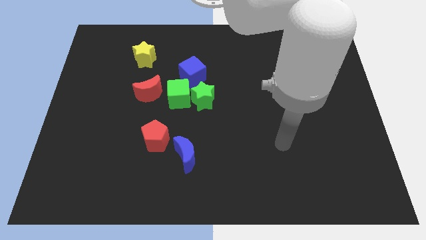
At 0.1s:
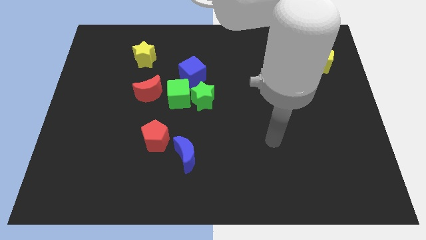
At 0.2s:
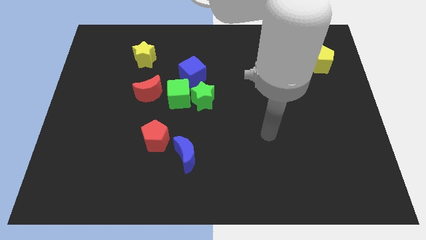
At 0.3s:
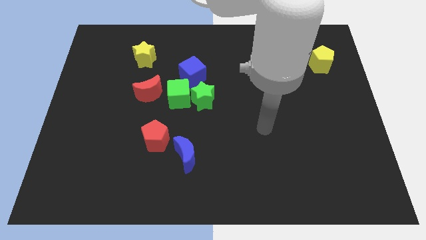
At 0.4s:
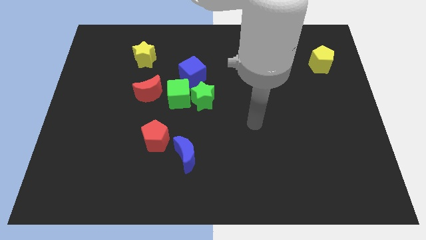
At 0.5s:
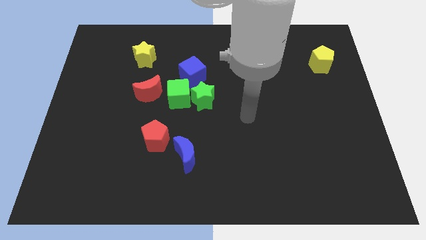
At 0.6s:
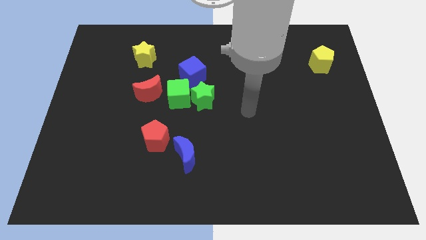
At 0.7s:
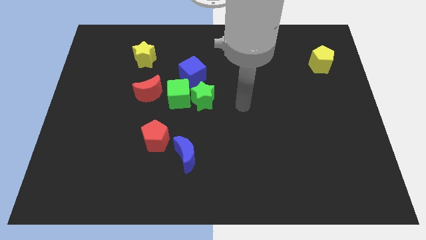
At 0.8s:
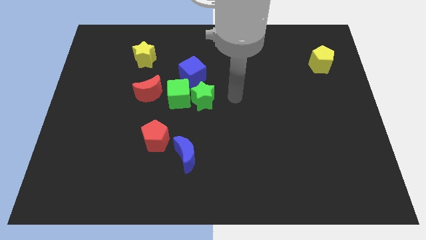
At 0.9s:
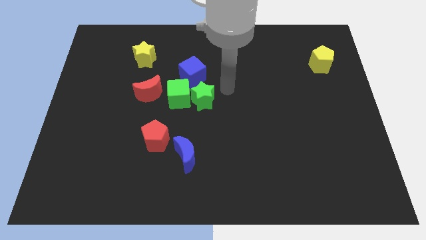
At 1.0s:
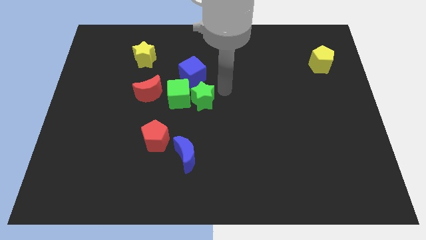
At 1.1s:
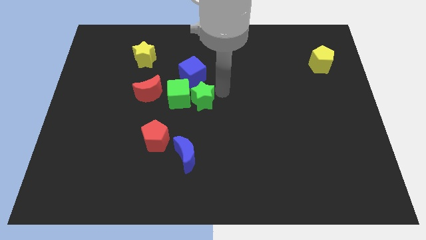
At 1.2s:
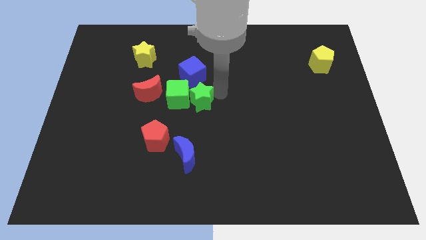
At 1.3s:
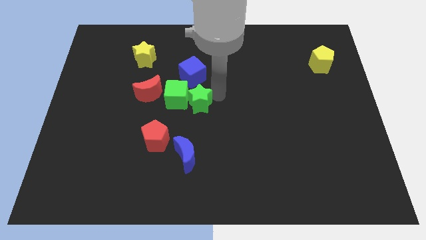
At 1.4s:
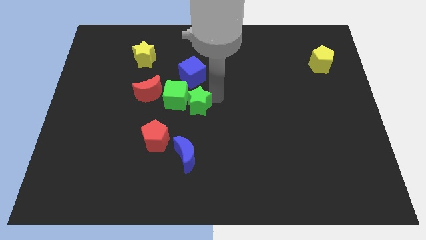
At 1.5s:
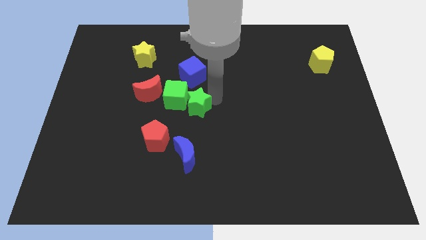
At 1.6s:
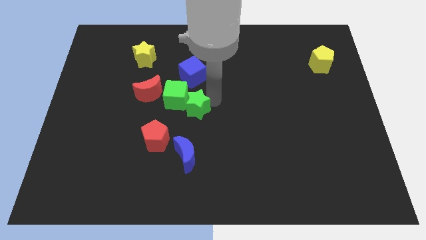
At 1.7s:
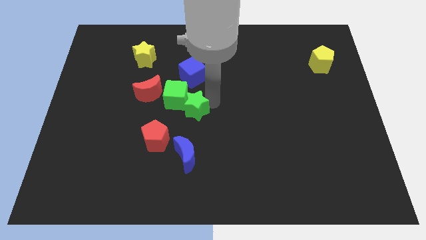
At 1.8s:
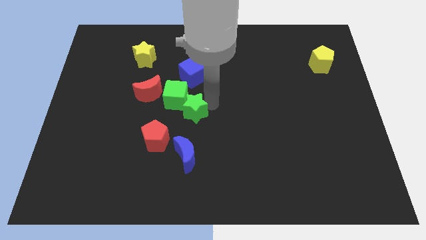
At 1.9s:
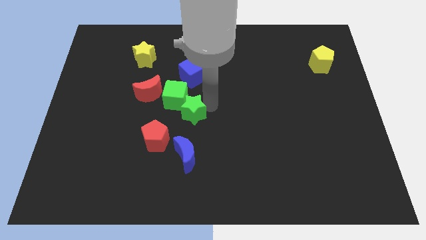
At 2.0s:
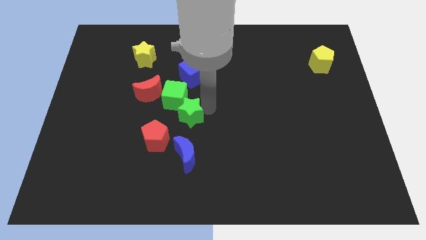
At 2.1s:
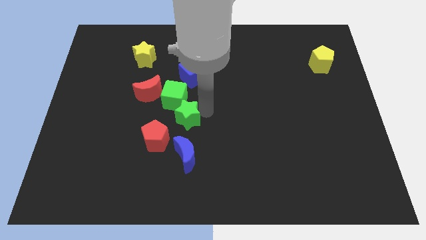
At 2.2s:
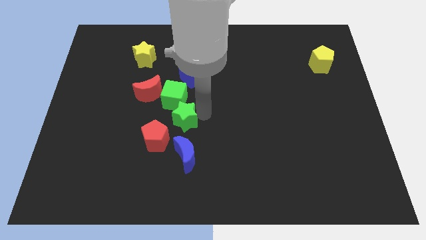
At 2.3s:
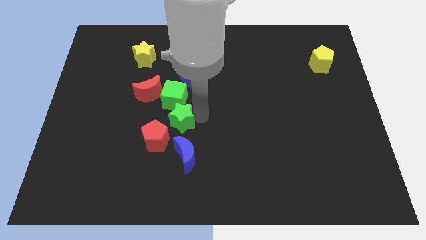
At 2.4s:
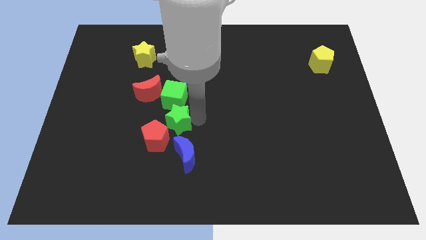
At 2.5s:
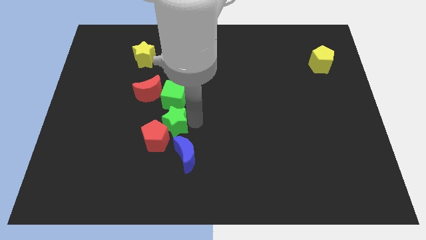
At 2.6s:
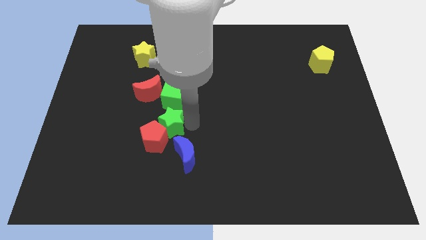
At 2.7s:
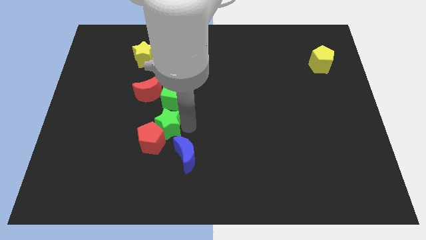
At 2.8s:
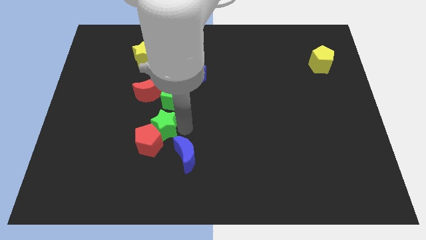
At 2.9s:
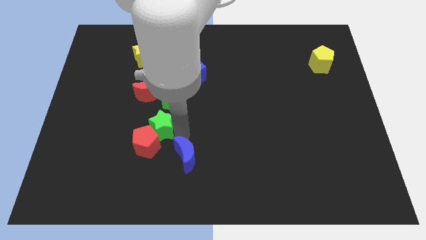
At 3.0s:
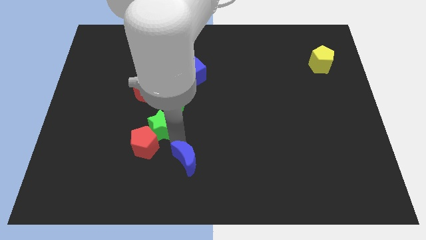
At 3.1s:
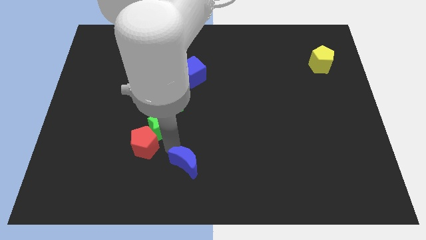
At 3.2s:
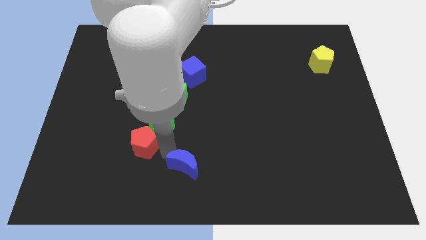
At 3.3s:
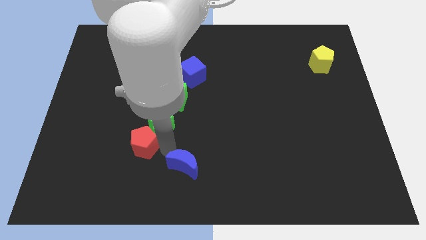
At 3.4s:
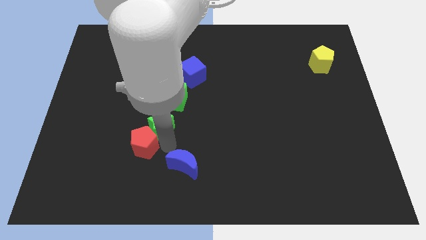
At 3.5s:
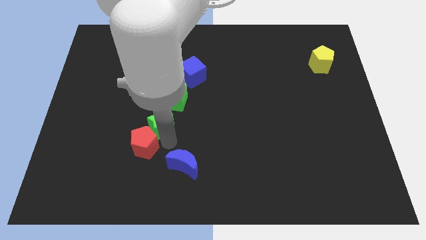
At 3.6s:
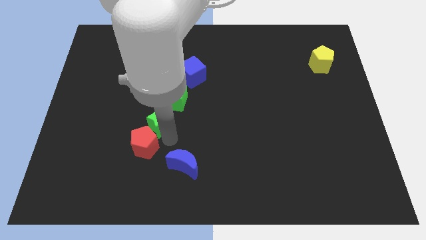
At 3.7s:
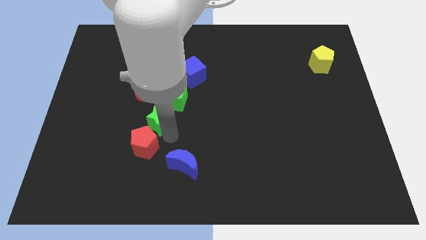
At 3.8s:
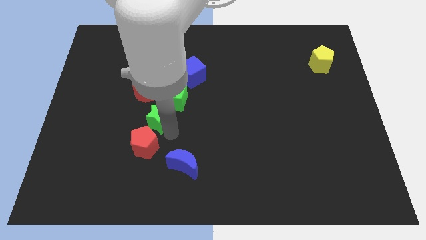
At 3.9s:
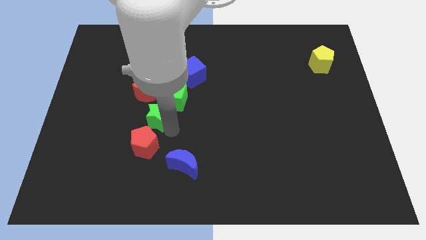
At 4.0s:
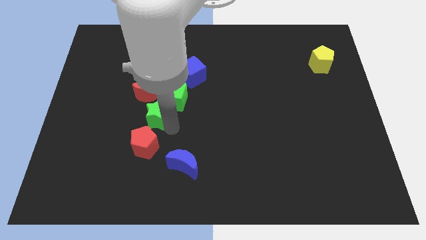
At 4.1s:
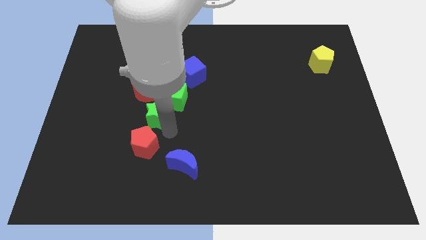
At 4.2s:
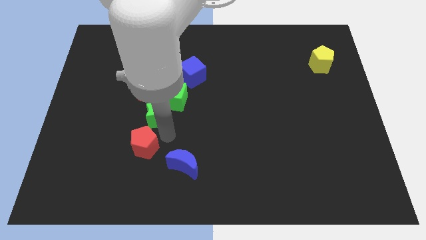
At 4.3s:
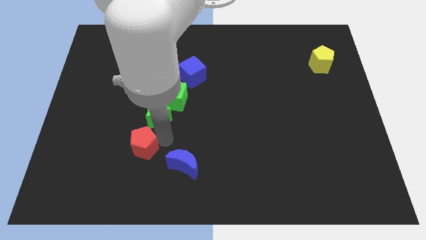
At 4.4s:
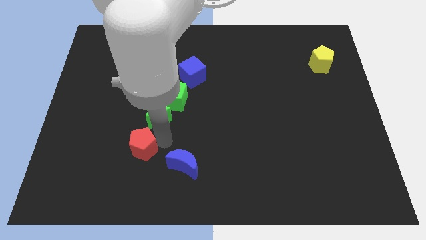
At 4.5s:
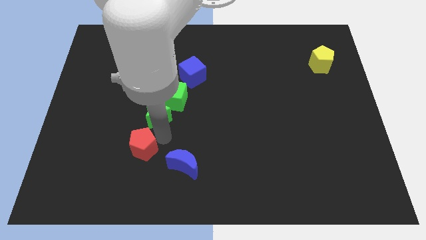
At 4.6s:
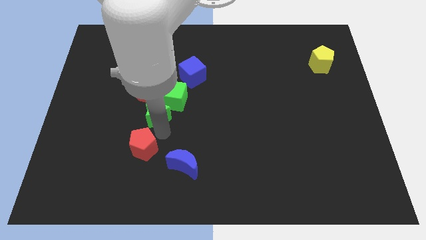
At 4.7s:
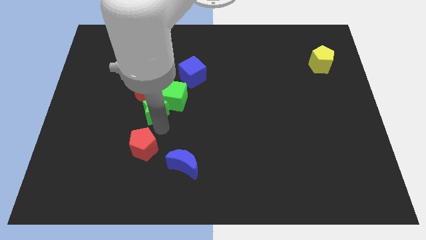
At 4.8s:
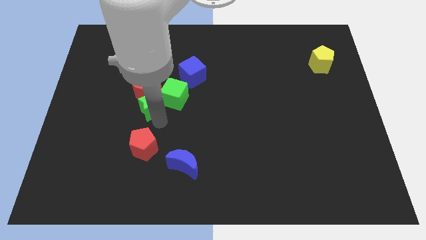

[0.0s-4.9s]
slide the green star to the red moon

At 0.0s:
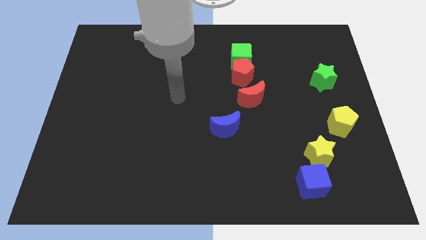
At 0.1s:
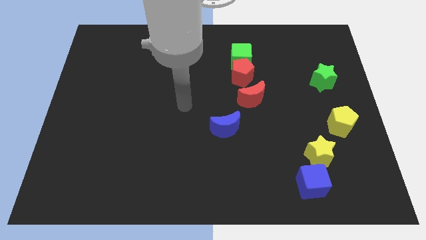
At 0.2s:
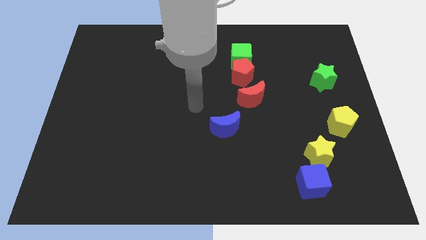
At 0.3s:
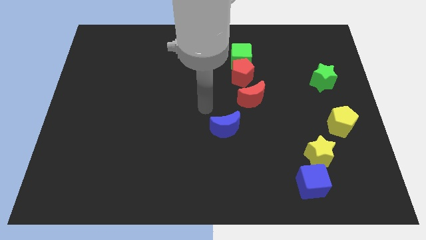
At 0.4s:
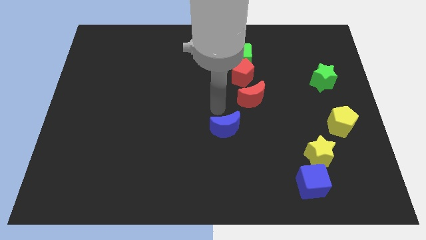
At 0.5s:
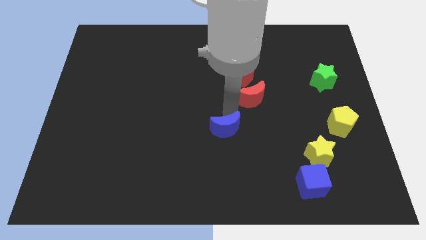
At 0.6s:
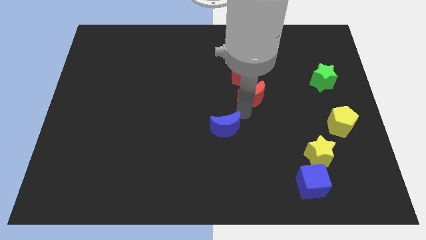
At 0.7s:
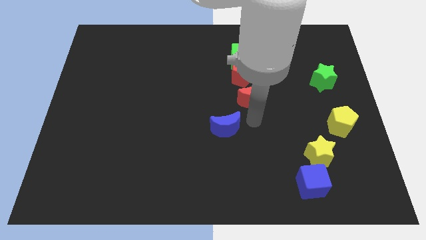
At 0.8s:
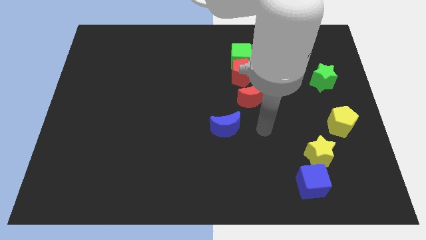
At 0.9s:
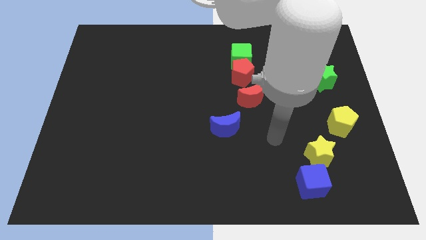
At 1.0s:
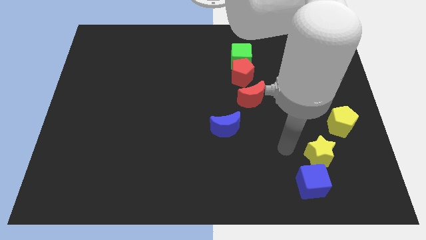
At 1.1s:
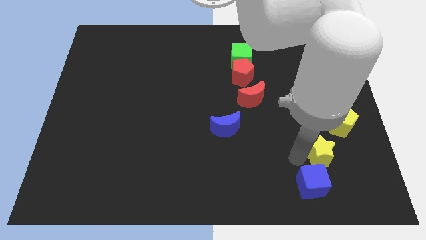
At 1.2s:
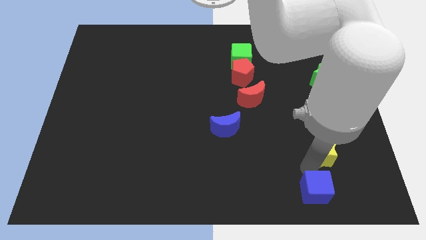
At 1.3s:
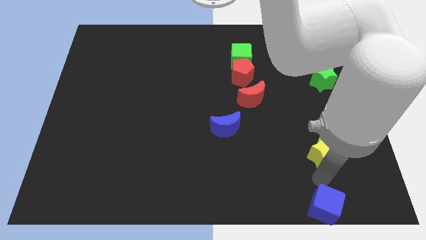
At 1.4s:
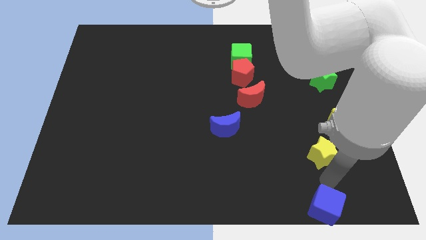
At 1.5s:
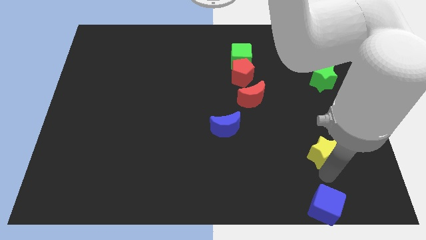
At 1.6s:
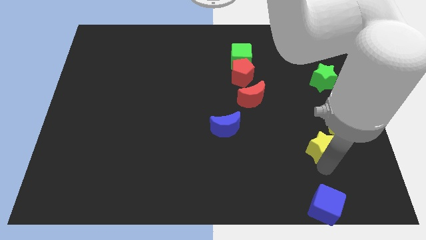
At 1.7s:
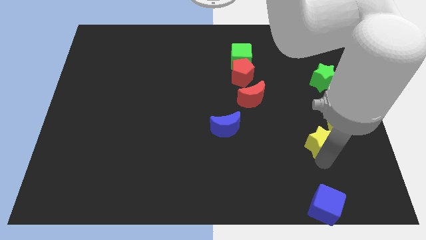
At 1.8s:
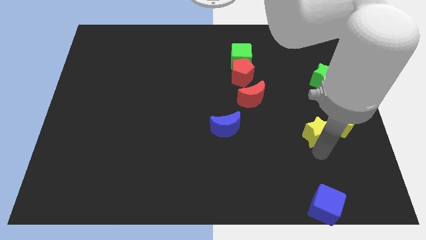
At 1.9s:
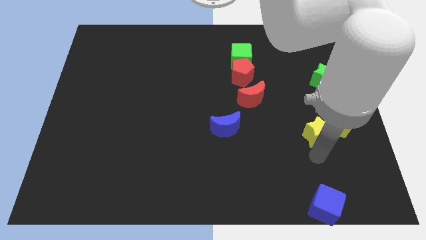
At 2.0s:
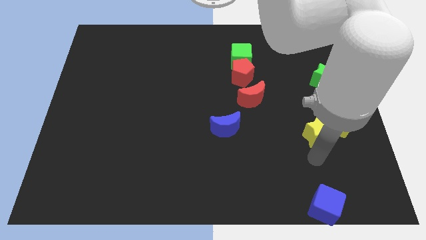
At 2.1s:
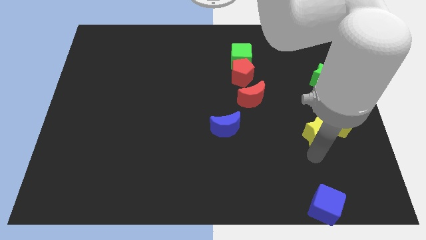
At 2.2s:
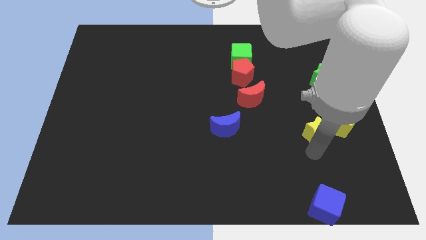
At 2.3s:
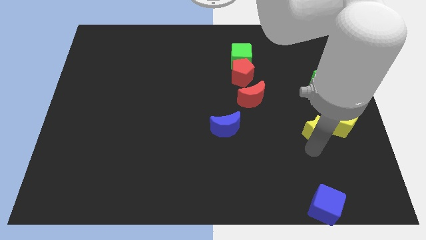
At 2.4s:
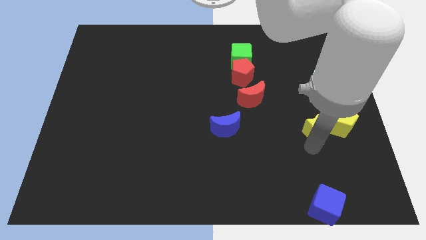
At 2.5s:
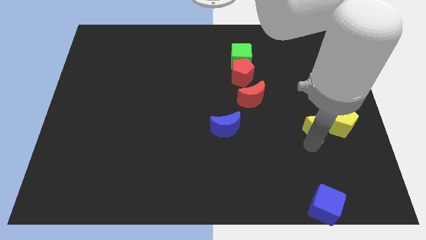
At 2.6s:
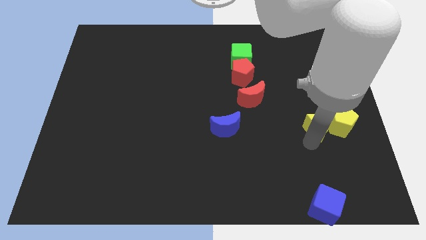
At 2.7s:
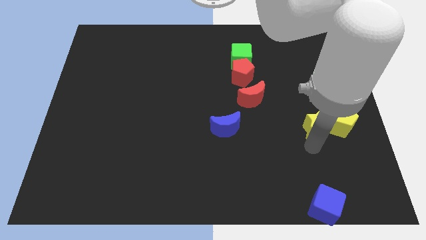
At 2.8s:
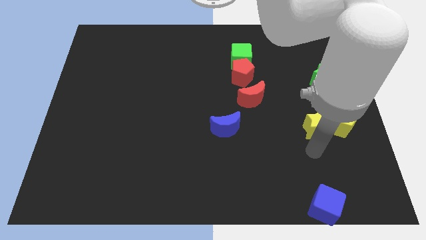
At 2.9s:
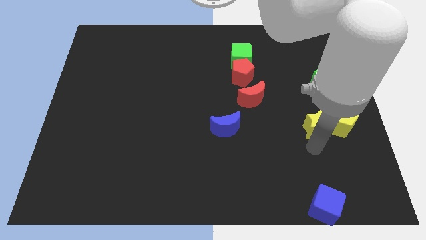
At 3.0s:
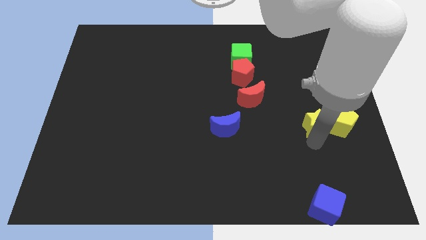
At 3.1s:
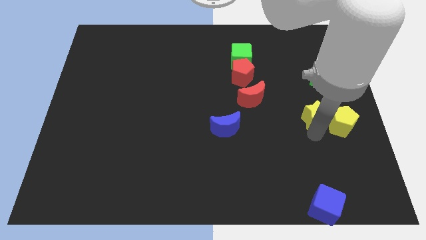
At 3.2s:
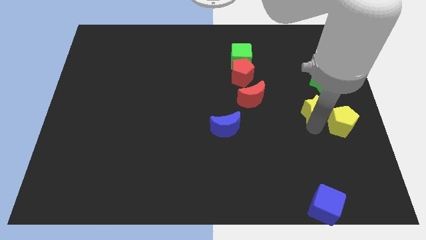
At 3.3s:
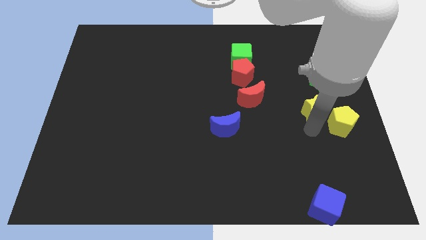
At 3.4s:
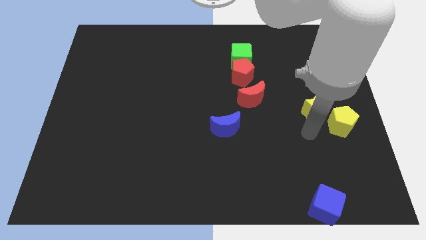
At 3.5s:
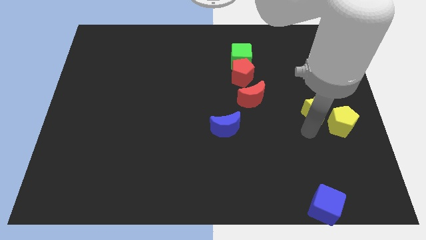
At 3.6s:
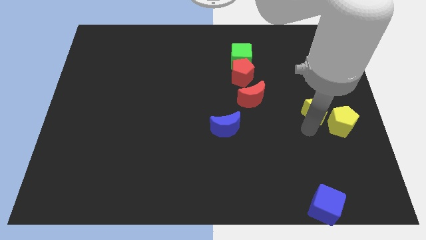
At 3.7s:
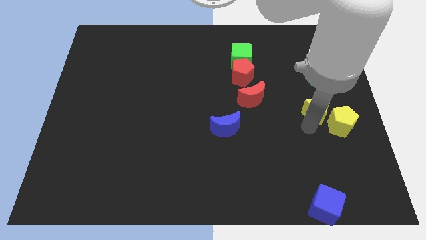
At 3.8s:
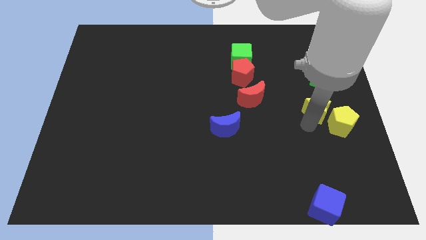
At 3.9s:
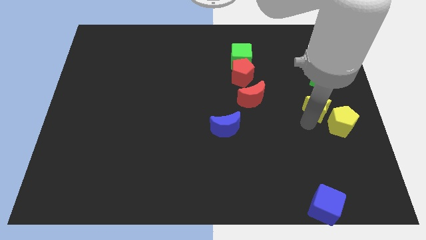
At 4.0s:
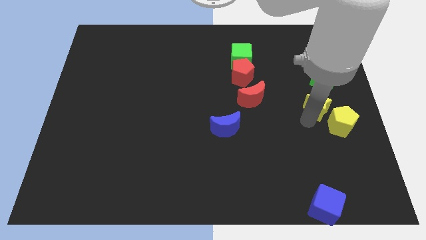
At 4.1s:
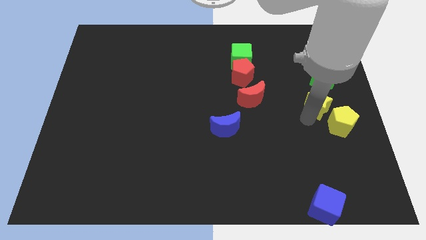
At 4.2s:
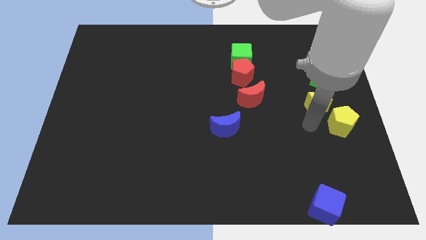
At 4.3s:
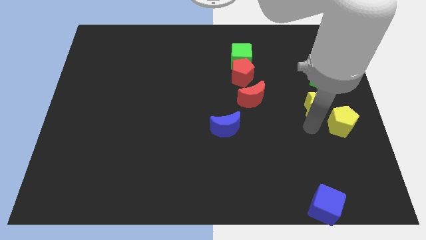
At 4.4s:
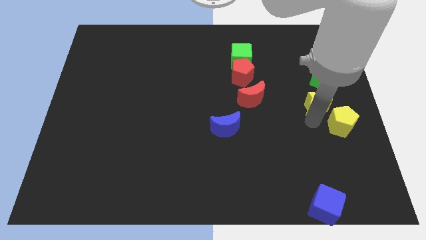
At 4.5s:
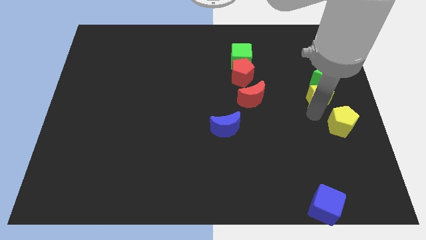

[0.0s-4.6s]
slide the yellow star to the green star
